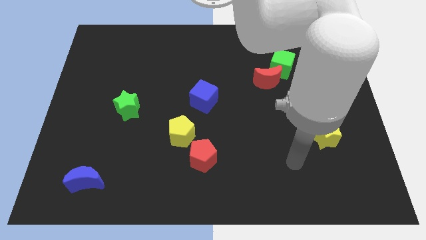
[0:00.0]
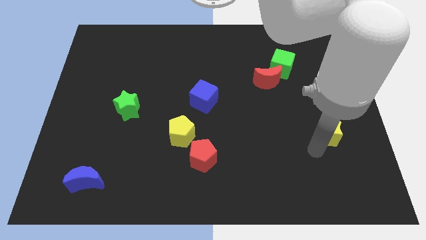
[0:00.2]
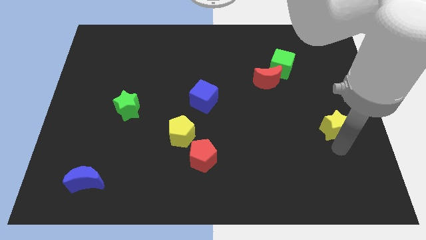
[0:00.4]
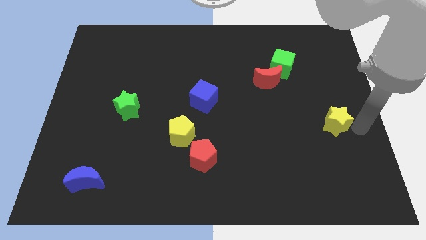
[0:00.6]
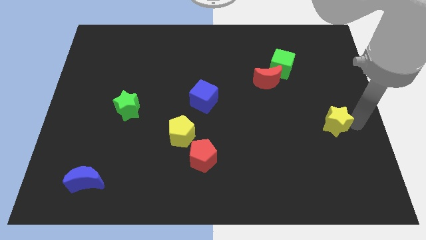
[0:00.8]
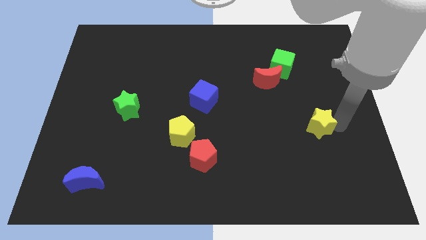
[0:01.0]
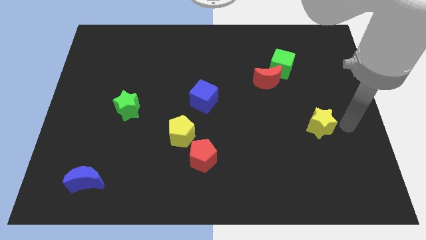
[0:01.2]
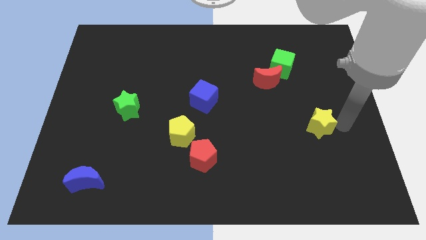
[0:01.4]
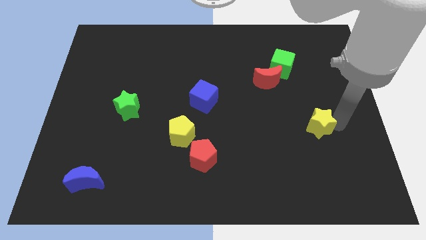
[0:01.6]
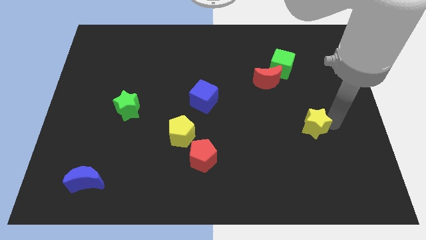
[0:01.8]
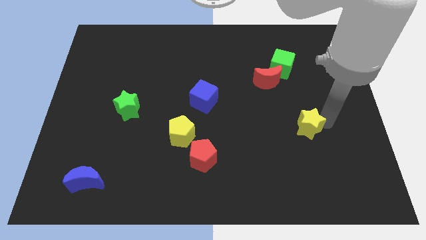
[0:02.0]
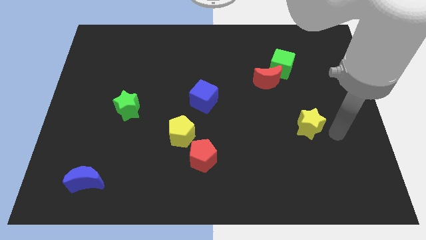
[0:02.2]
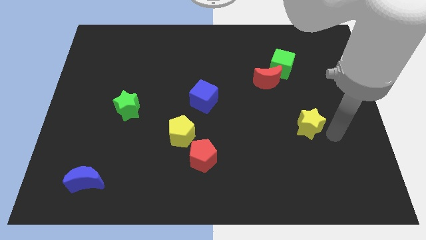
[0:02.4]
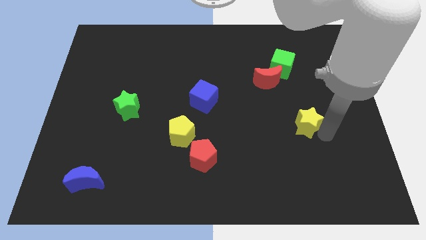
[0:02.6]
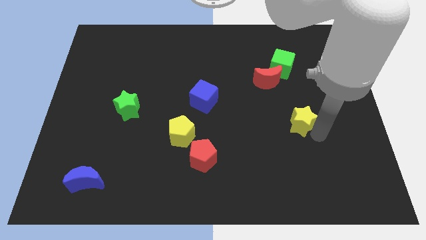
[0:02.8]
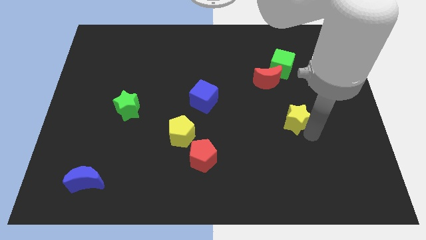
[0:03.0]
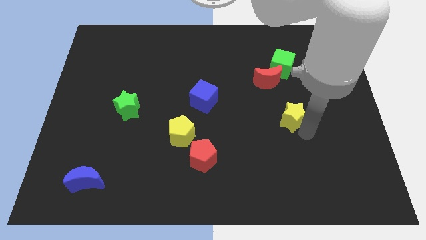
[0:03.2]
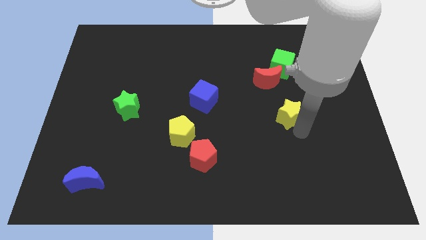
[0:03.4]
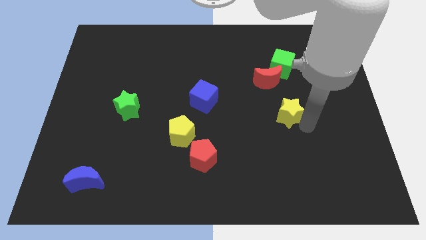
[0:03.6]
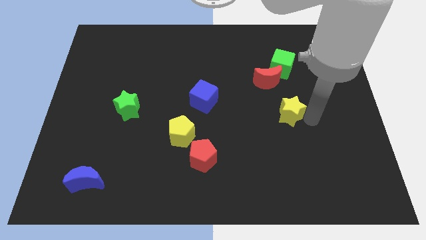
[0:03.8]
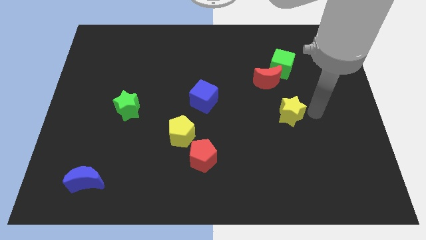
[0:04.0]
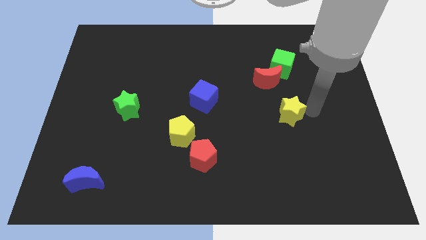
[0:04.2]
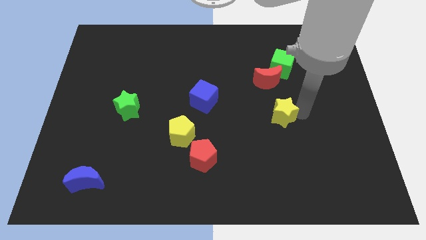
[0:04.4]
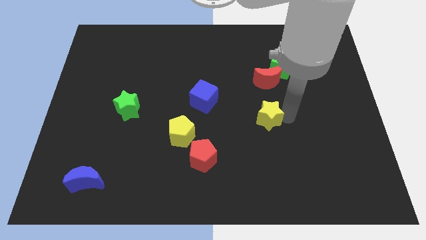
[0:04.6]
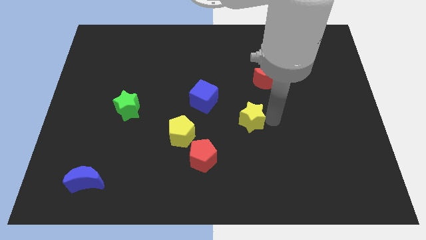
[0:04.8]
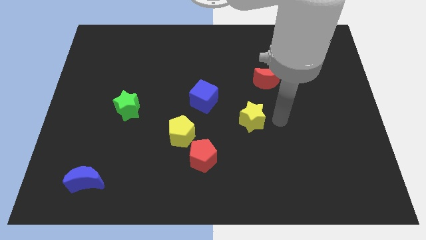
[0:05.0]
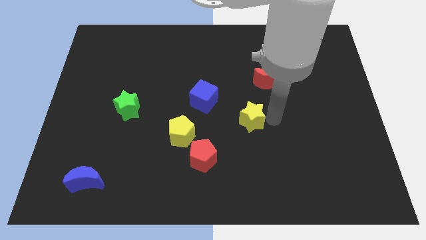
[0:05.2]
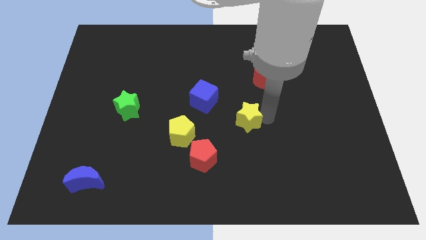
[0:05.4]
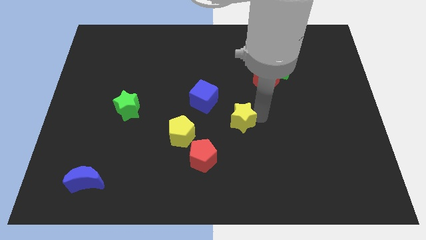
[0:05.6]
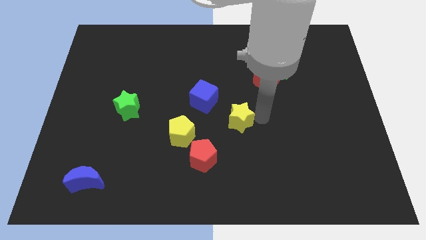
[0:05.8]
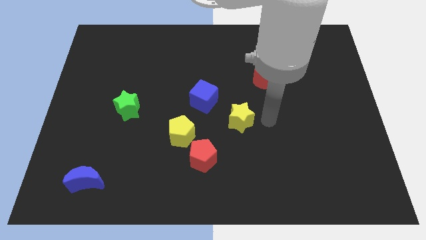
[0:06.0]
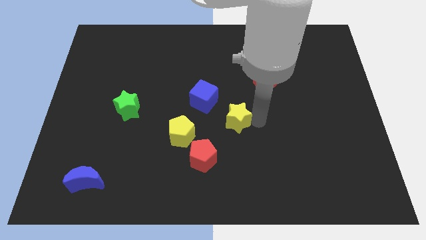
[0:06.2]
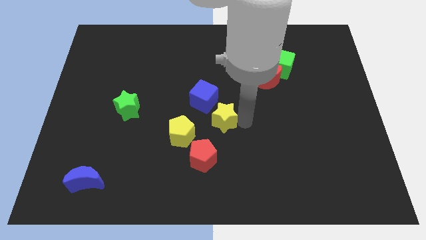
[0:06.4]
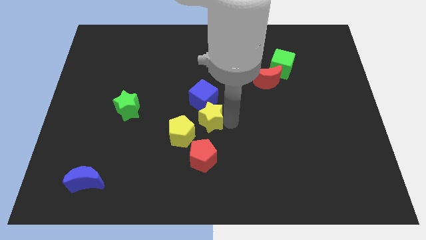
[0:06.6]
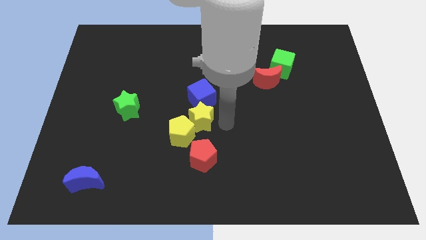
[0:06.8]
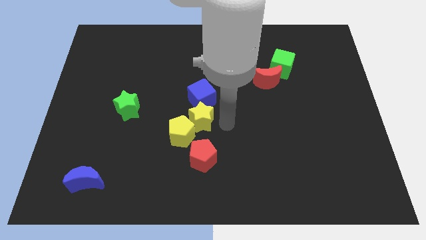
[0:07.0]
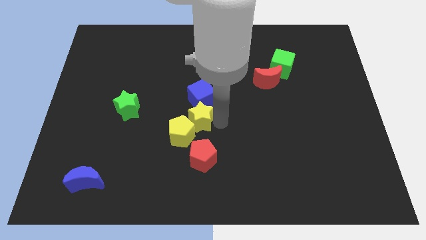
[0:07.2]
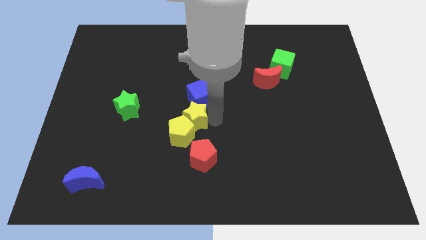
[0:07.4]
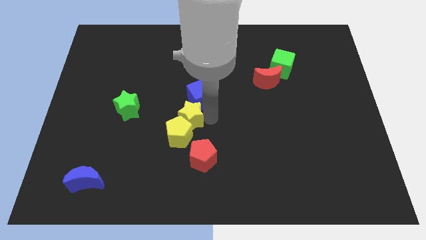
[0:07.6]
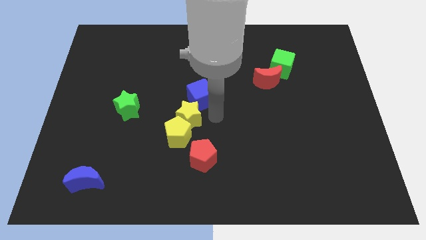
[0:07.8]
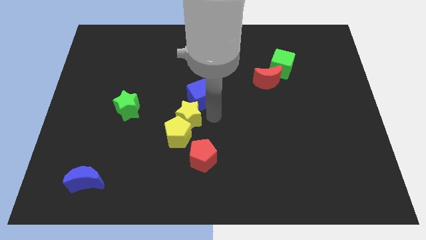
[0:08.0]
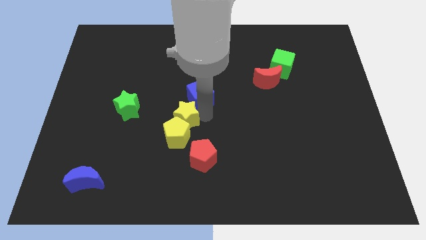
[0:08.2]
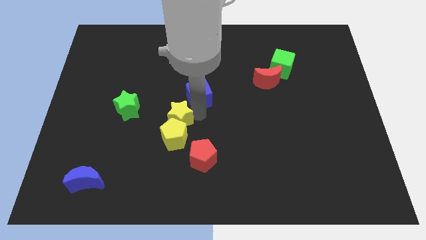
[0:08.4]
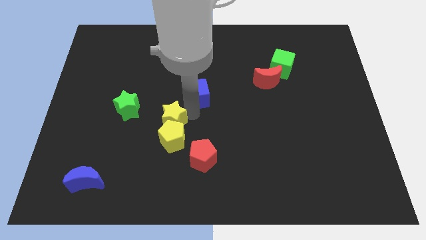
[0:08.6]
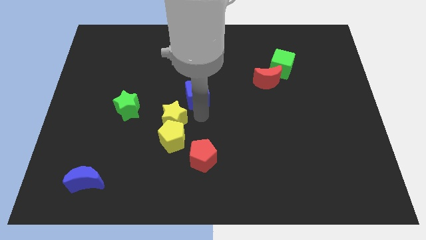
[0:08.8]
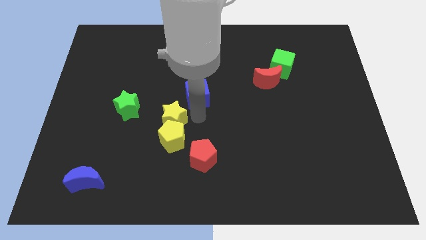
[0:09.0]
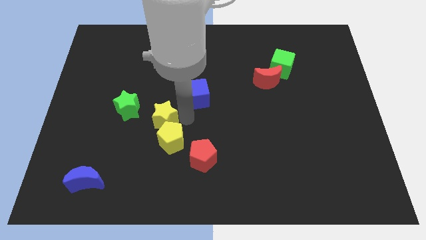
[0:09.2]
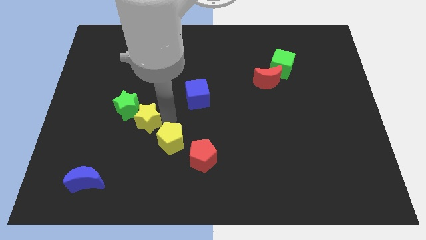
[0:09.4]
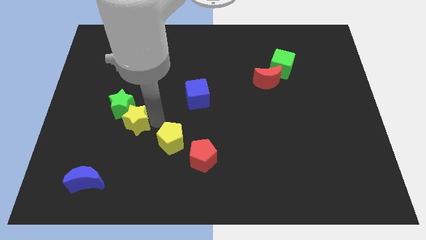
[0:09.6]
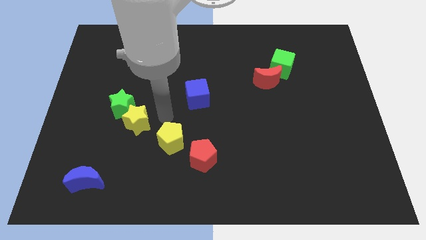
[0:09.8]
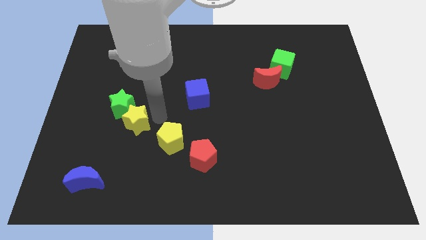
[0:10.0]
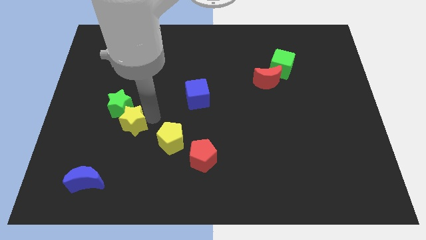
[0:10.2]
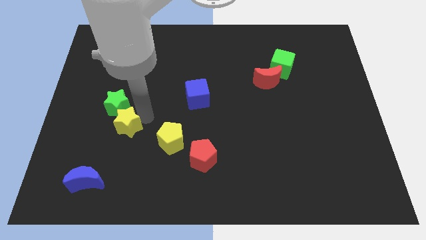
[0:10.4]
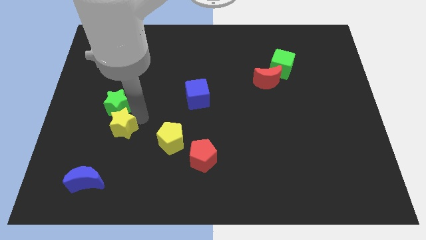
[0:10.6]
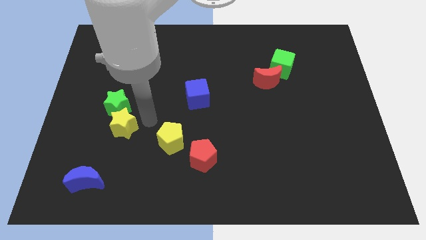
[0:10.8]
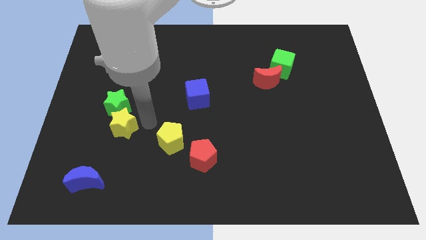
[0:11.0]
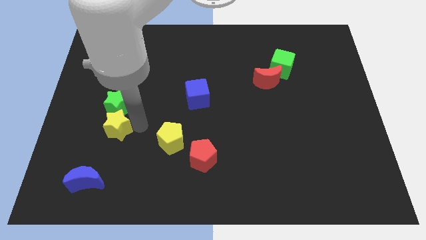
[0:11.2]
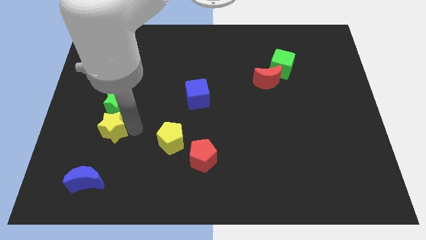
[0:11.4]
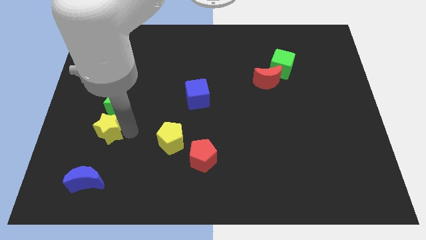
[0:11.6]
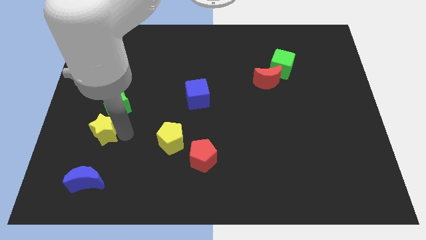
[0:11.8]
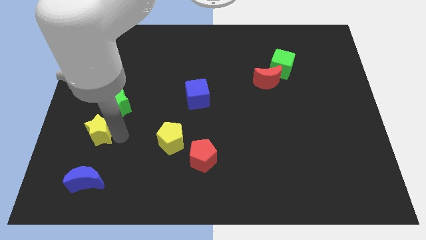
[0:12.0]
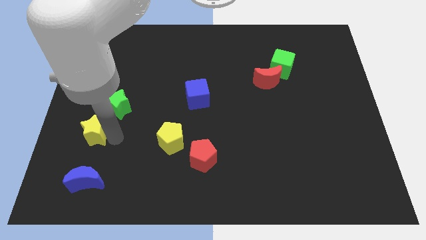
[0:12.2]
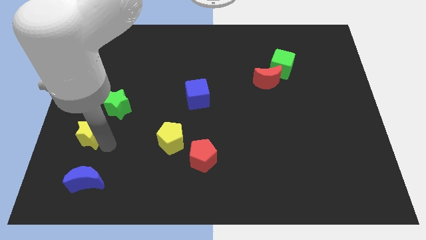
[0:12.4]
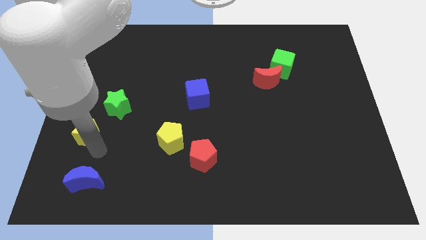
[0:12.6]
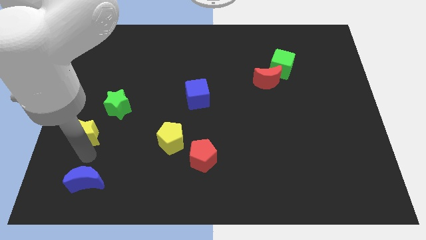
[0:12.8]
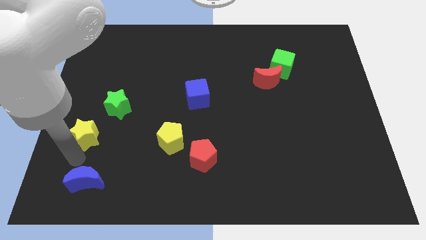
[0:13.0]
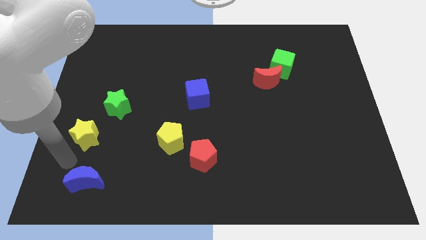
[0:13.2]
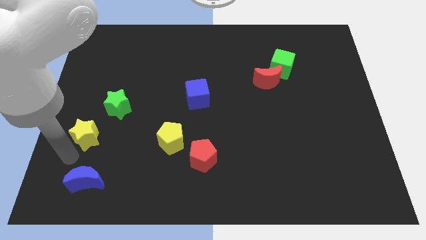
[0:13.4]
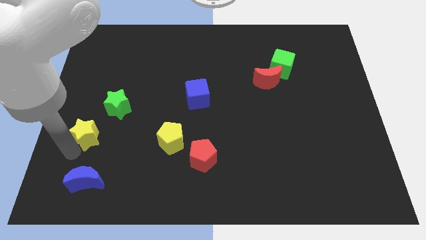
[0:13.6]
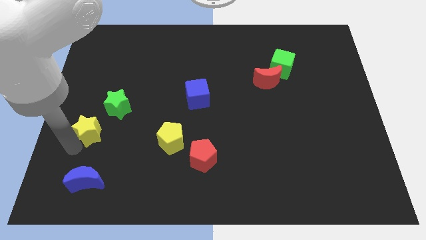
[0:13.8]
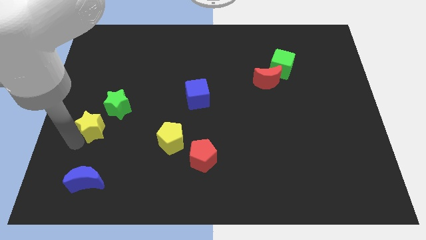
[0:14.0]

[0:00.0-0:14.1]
slide the yellow star to the left side
